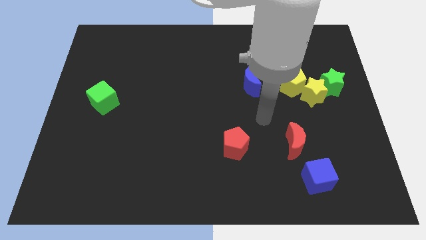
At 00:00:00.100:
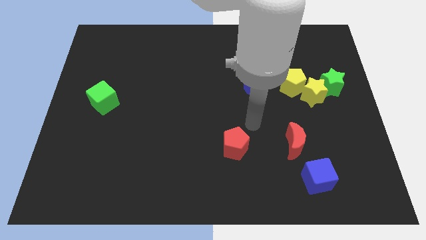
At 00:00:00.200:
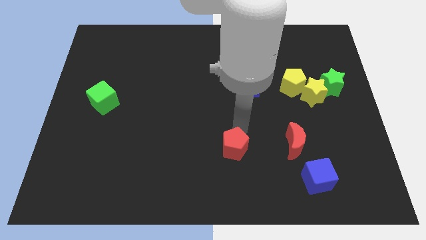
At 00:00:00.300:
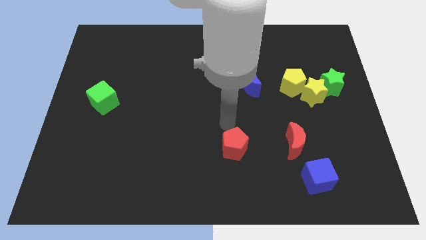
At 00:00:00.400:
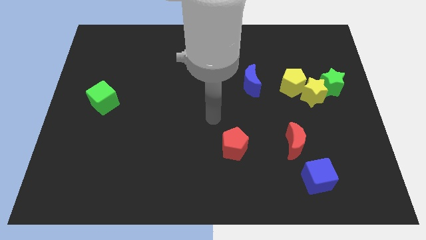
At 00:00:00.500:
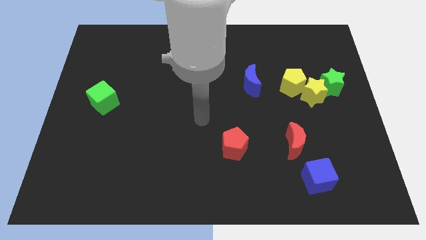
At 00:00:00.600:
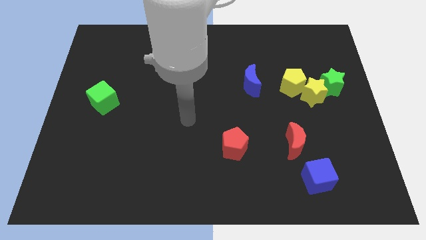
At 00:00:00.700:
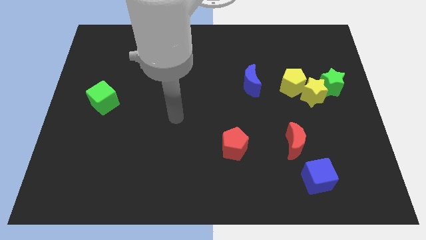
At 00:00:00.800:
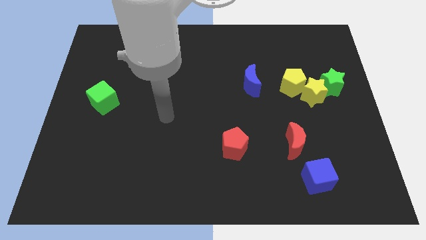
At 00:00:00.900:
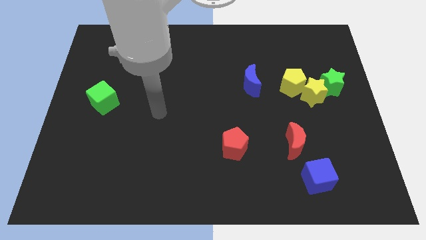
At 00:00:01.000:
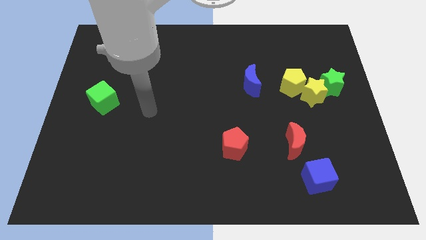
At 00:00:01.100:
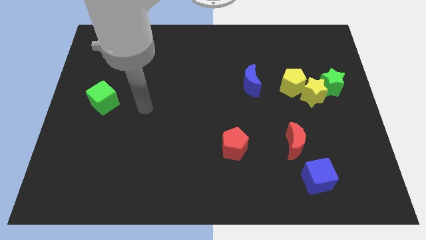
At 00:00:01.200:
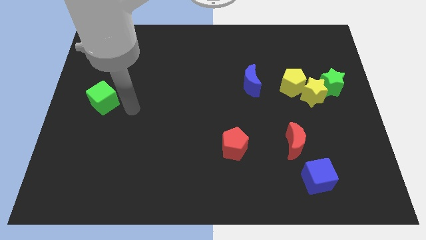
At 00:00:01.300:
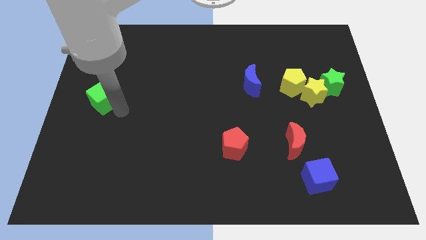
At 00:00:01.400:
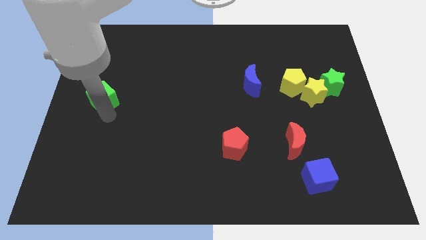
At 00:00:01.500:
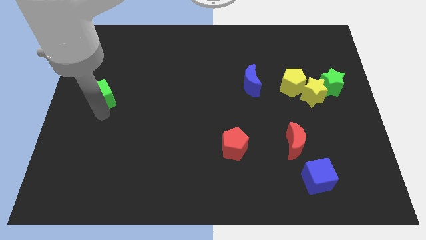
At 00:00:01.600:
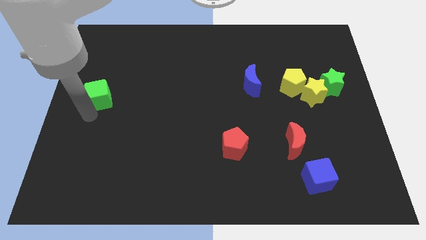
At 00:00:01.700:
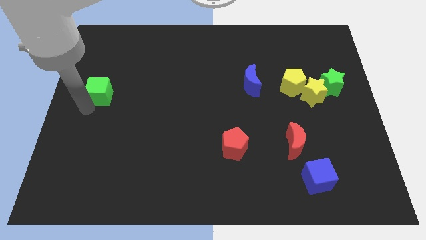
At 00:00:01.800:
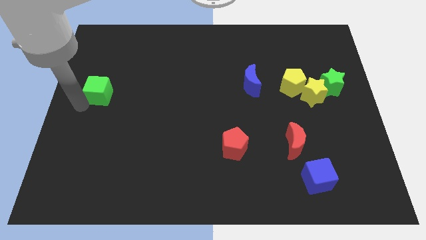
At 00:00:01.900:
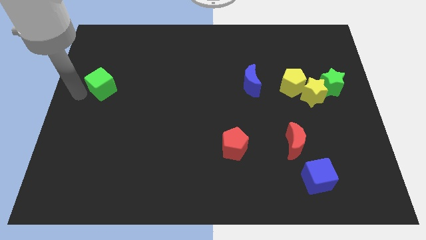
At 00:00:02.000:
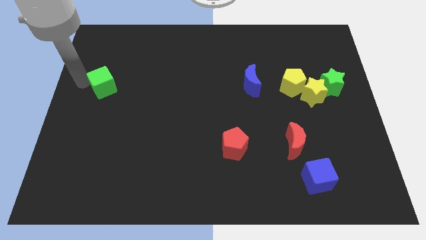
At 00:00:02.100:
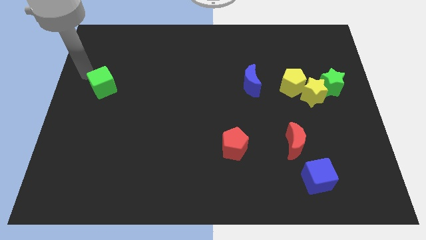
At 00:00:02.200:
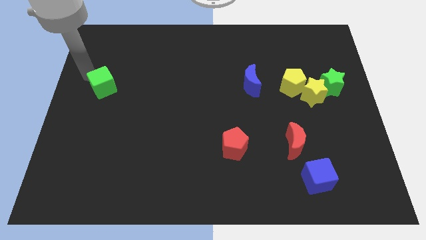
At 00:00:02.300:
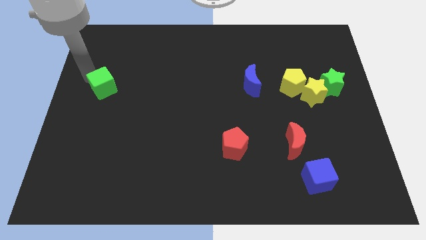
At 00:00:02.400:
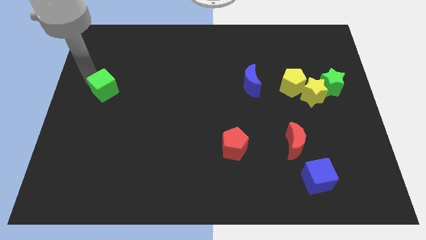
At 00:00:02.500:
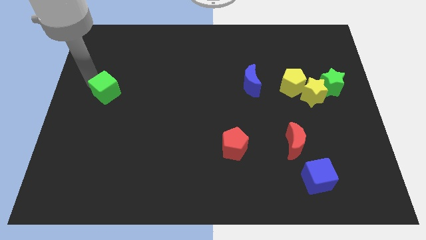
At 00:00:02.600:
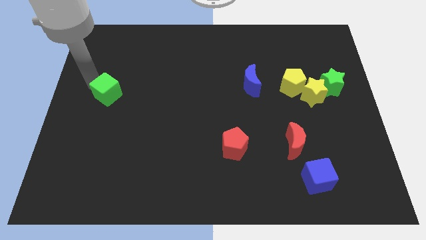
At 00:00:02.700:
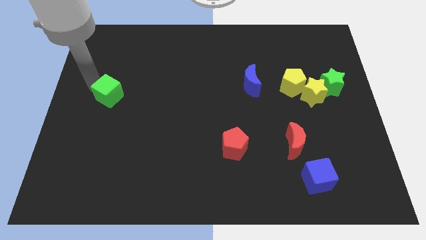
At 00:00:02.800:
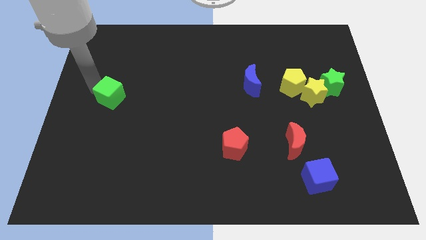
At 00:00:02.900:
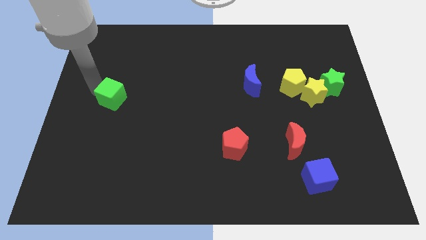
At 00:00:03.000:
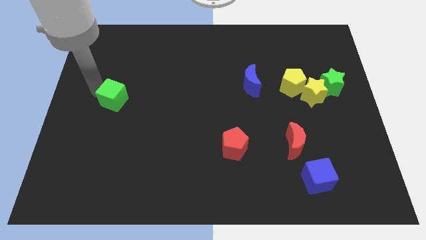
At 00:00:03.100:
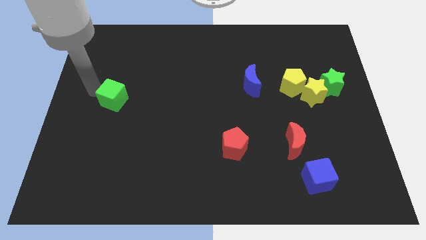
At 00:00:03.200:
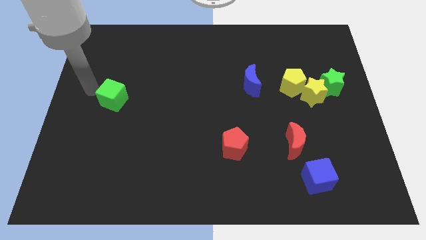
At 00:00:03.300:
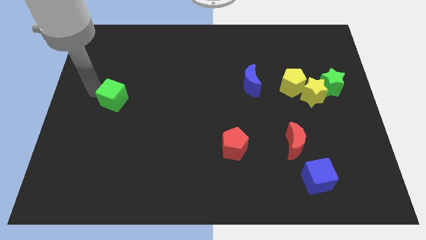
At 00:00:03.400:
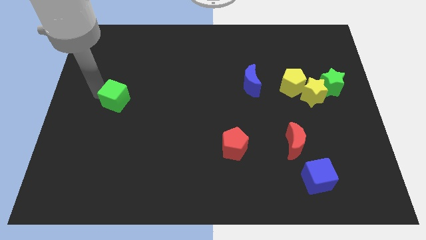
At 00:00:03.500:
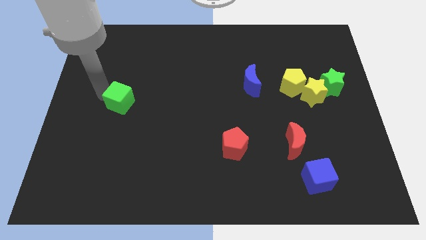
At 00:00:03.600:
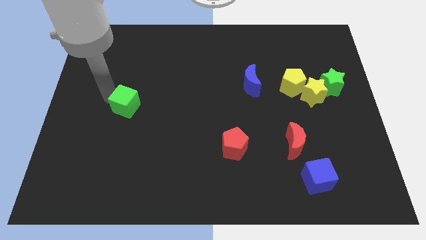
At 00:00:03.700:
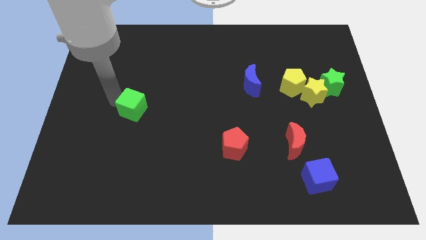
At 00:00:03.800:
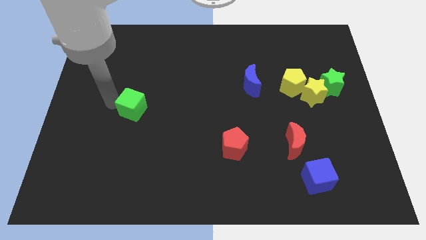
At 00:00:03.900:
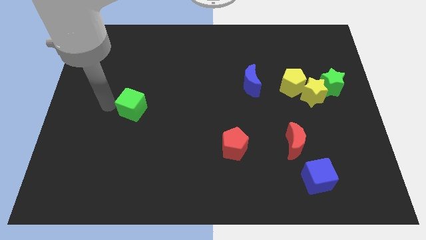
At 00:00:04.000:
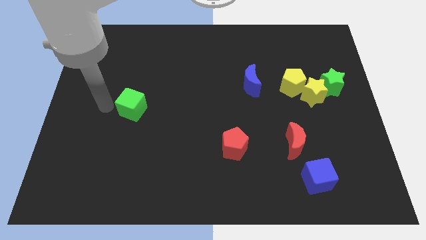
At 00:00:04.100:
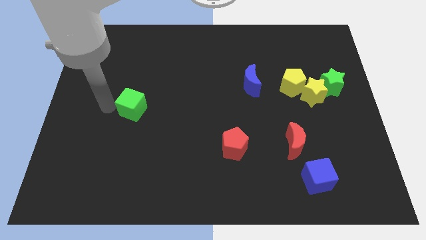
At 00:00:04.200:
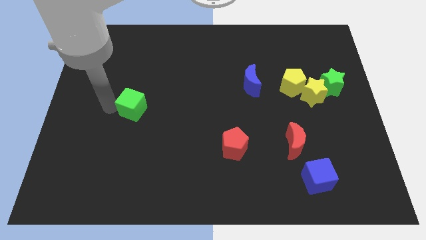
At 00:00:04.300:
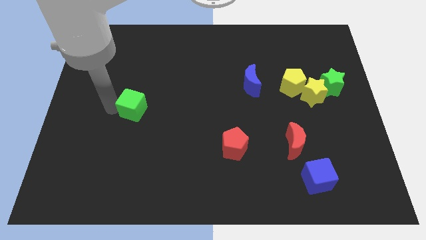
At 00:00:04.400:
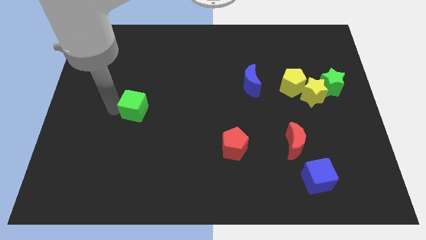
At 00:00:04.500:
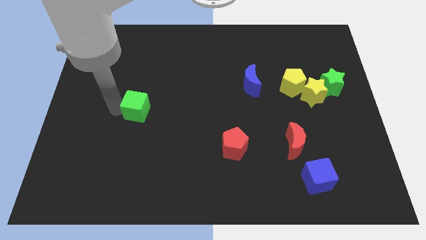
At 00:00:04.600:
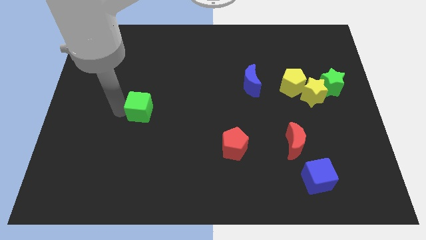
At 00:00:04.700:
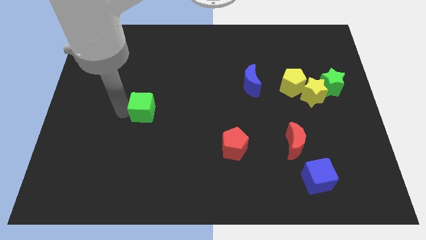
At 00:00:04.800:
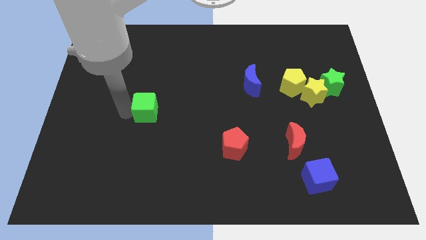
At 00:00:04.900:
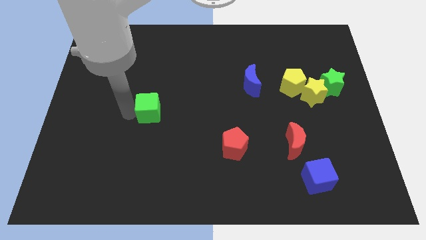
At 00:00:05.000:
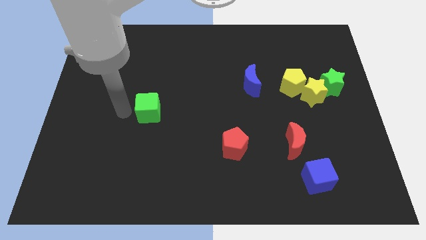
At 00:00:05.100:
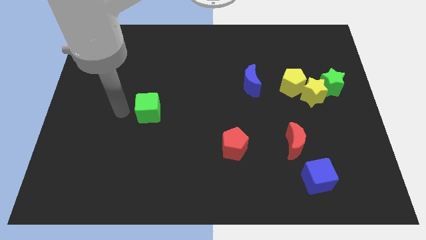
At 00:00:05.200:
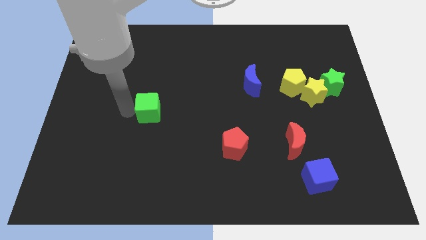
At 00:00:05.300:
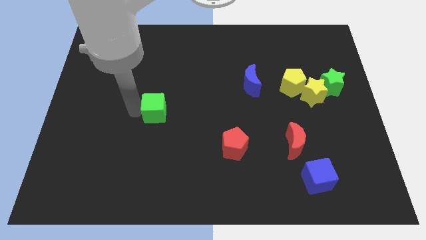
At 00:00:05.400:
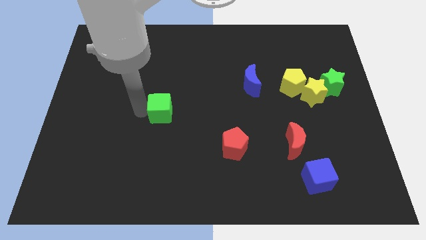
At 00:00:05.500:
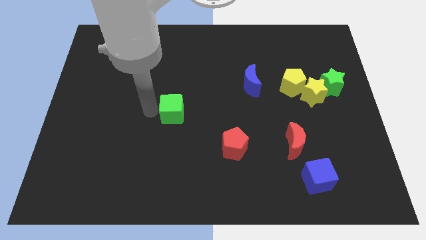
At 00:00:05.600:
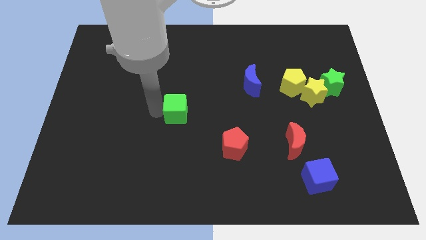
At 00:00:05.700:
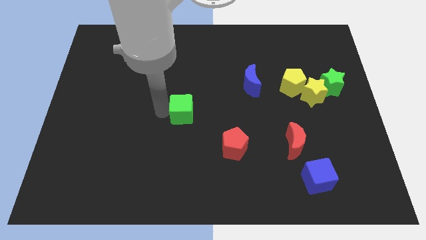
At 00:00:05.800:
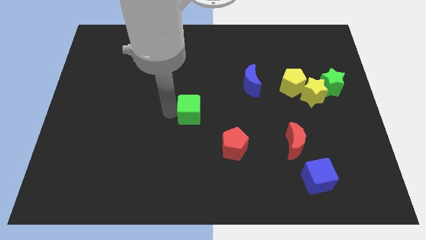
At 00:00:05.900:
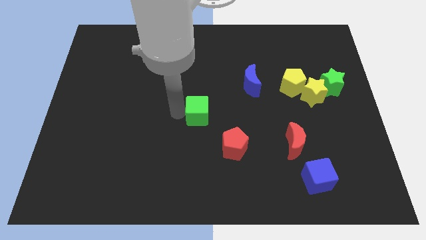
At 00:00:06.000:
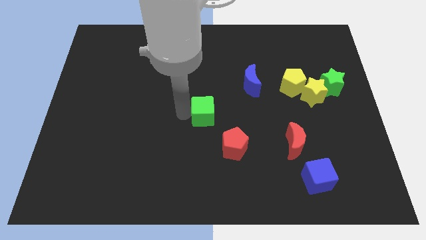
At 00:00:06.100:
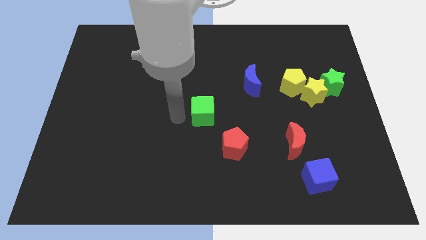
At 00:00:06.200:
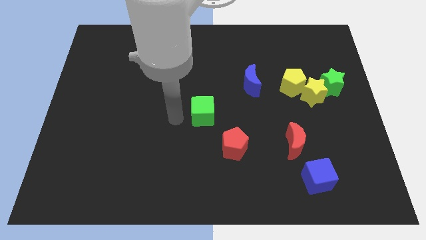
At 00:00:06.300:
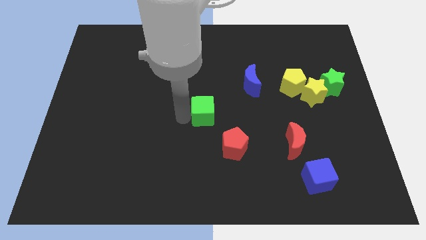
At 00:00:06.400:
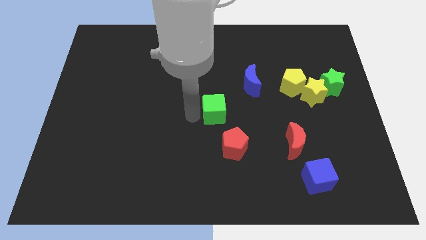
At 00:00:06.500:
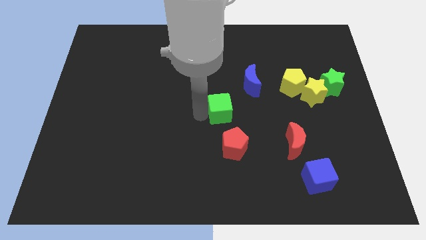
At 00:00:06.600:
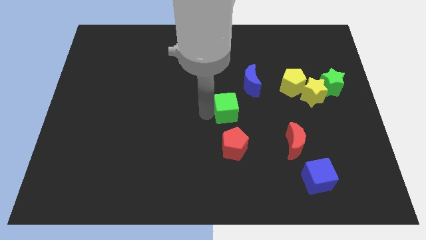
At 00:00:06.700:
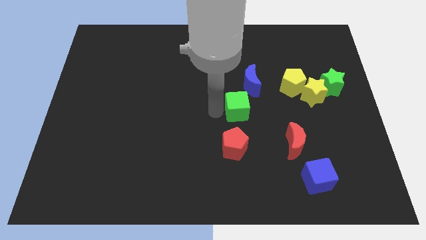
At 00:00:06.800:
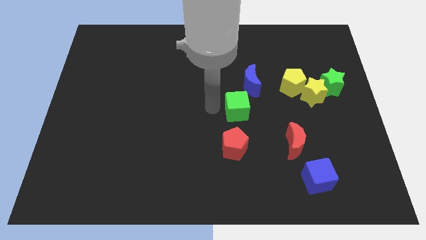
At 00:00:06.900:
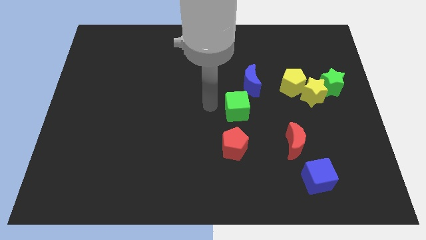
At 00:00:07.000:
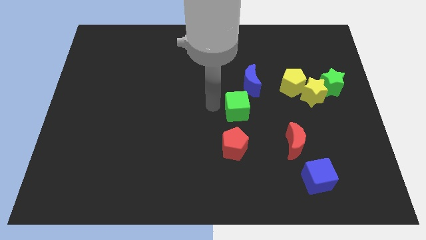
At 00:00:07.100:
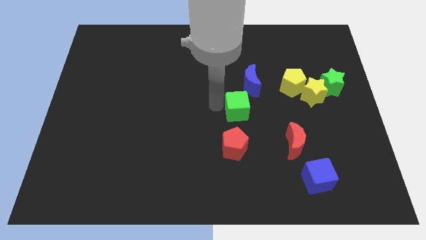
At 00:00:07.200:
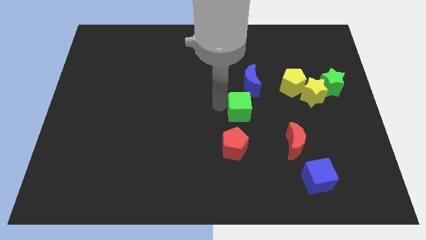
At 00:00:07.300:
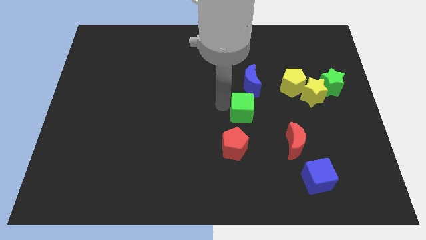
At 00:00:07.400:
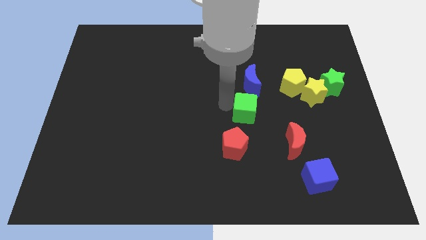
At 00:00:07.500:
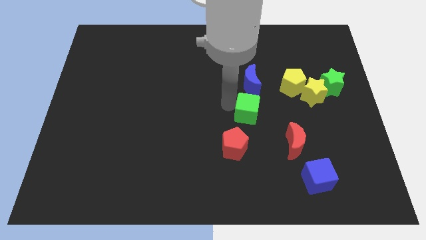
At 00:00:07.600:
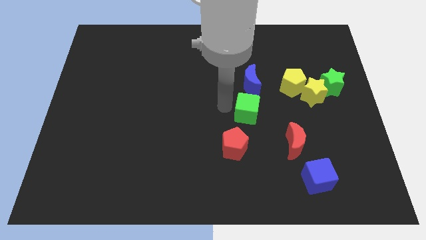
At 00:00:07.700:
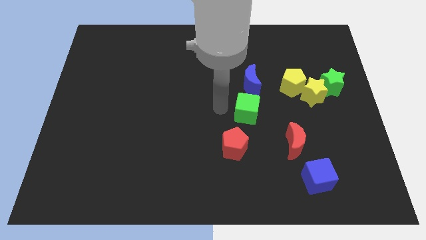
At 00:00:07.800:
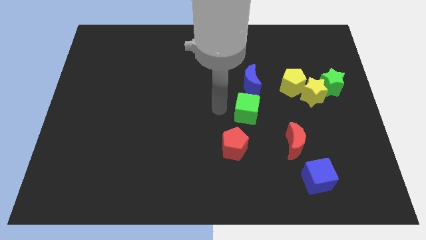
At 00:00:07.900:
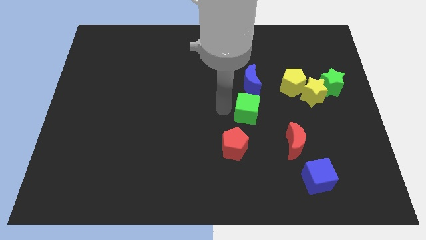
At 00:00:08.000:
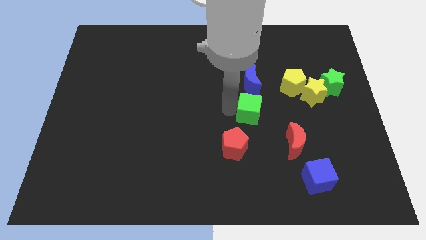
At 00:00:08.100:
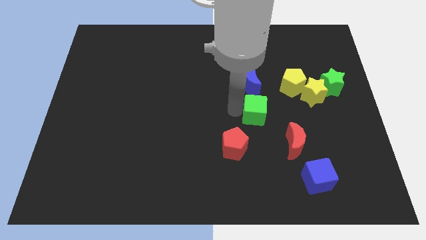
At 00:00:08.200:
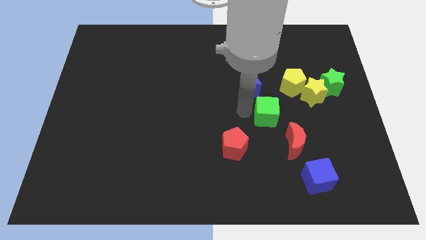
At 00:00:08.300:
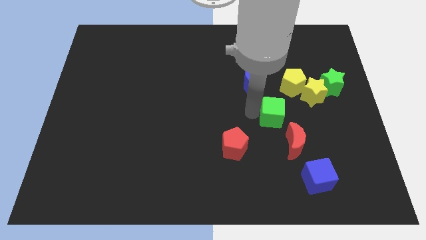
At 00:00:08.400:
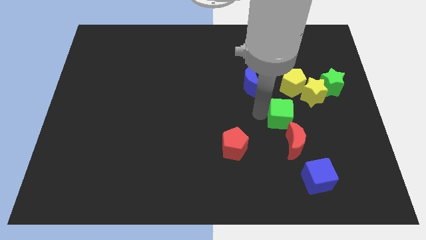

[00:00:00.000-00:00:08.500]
move the green cube to the bottom of the yellow pentagon
